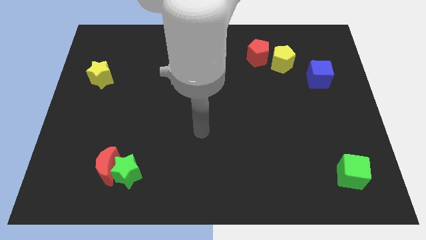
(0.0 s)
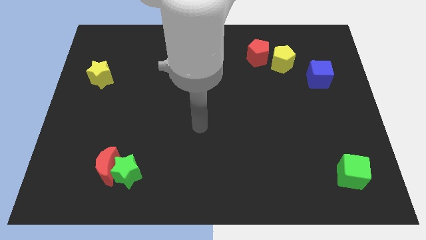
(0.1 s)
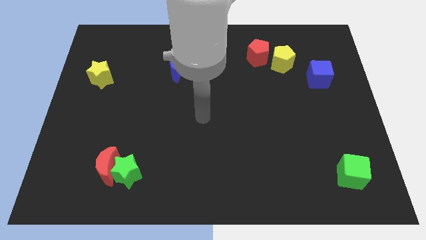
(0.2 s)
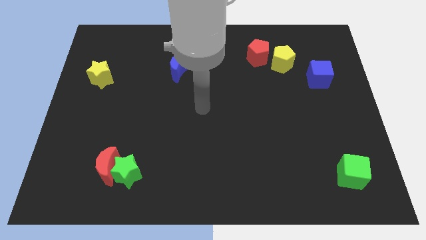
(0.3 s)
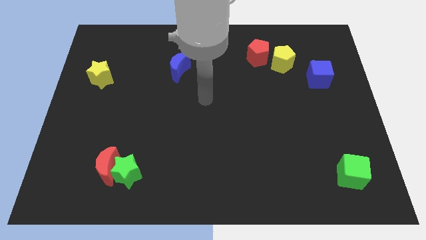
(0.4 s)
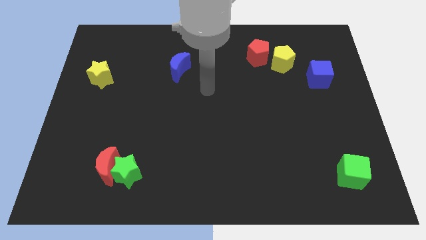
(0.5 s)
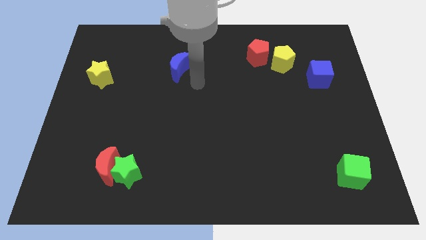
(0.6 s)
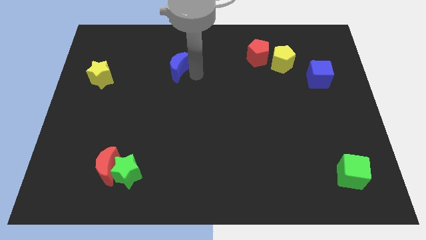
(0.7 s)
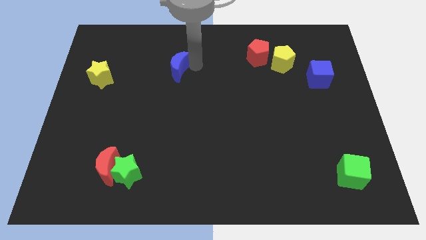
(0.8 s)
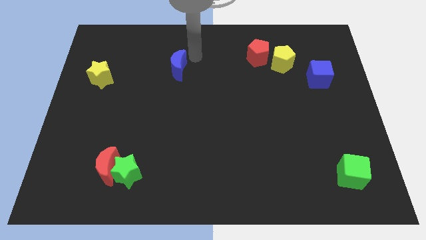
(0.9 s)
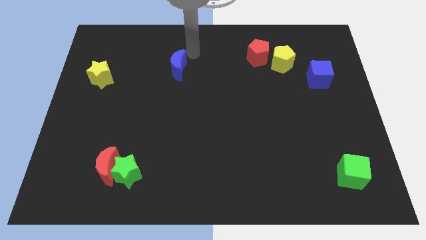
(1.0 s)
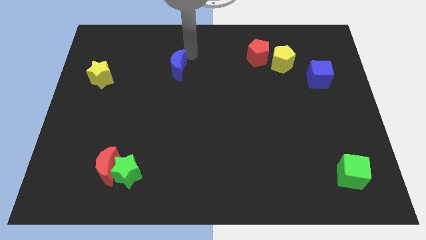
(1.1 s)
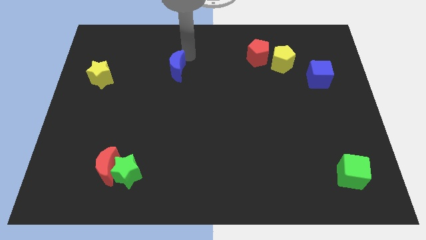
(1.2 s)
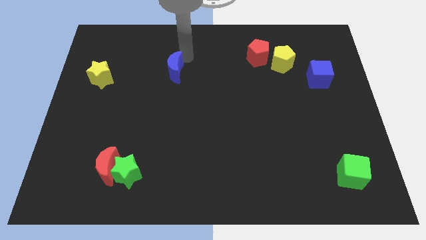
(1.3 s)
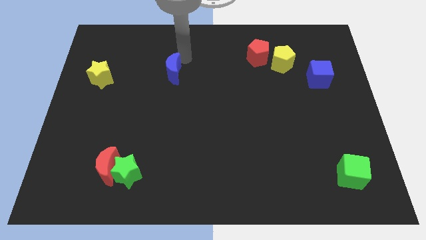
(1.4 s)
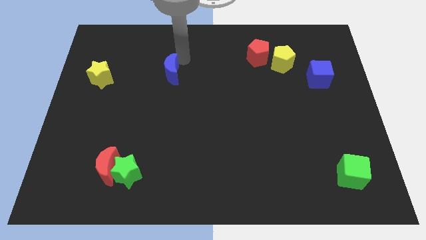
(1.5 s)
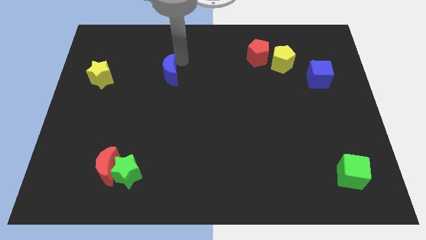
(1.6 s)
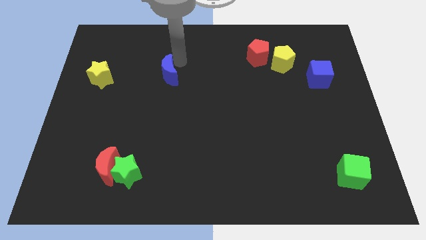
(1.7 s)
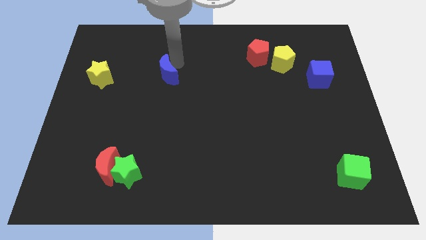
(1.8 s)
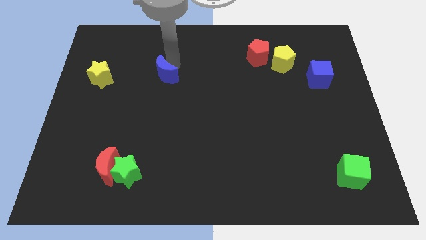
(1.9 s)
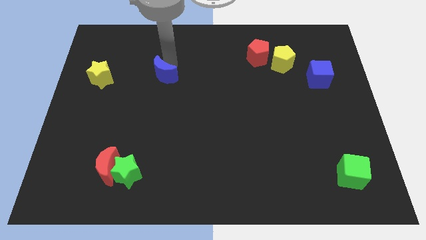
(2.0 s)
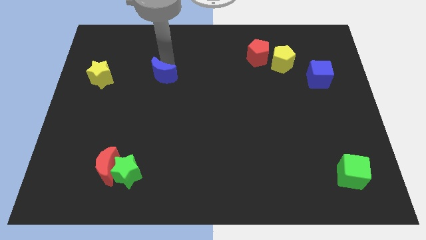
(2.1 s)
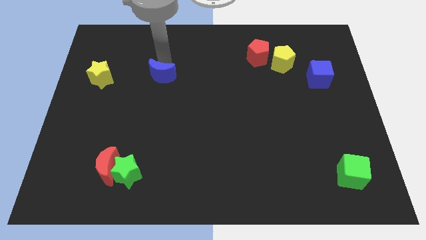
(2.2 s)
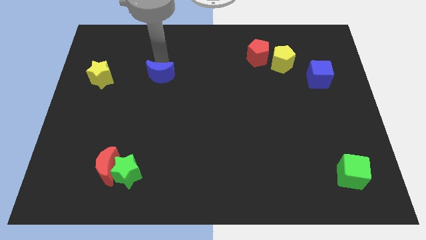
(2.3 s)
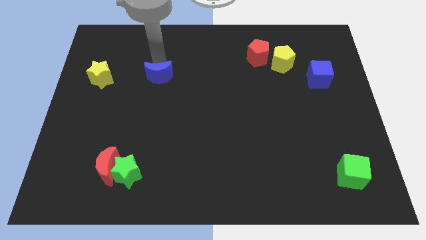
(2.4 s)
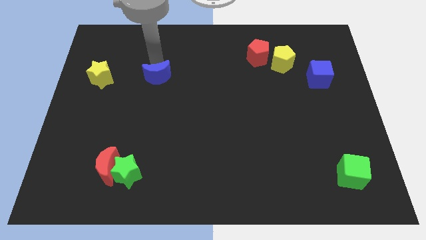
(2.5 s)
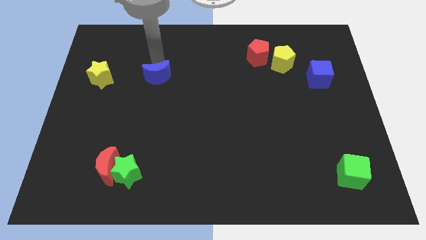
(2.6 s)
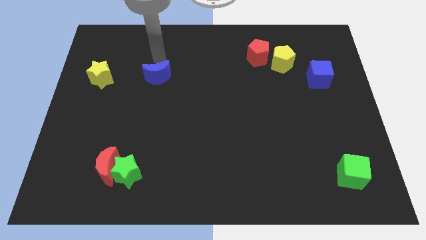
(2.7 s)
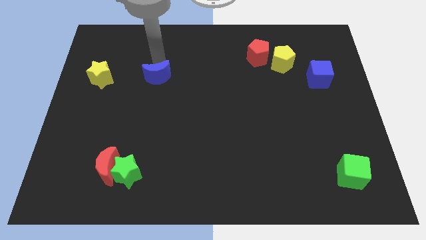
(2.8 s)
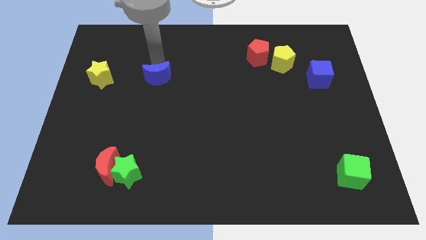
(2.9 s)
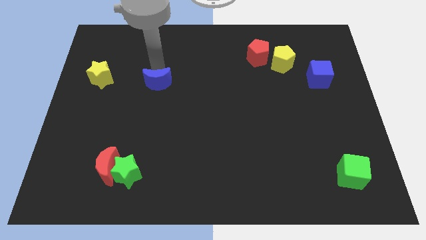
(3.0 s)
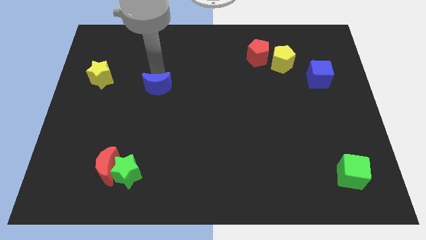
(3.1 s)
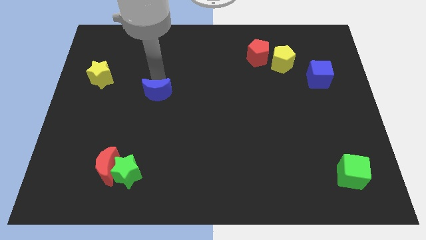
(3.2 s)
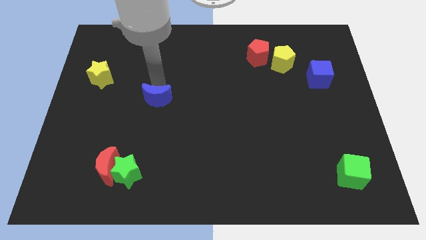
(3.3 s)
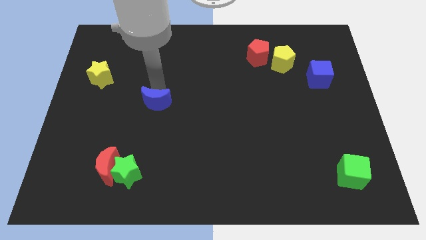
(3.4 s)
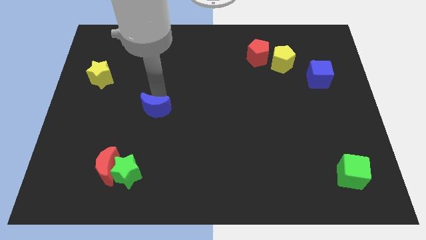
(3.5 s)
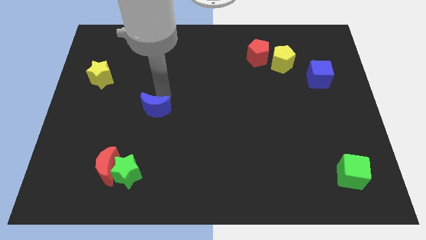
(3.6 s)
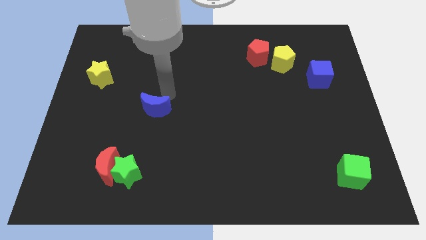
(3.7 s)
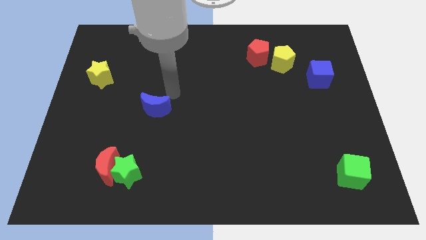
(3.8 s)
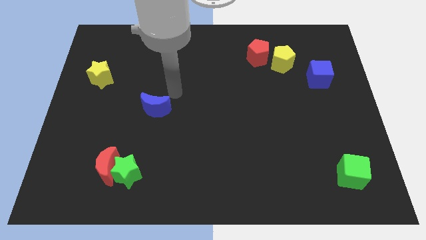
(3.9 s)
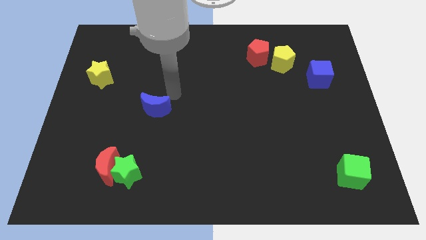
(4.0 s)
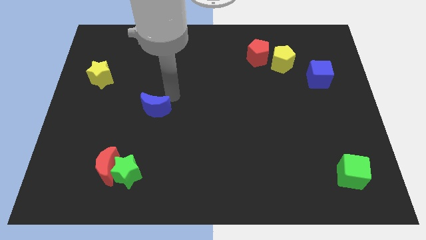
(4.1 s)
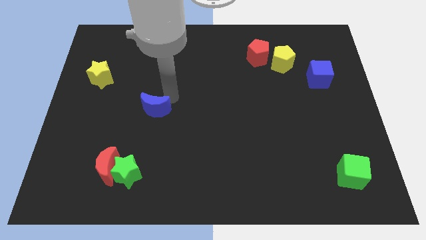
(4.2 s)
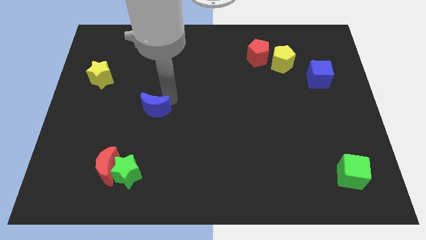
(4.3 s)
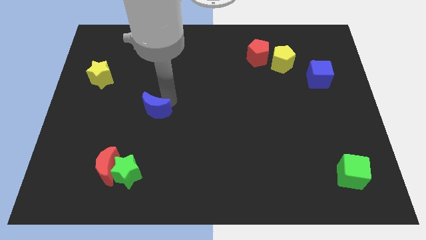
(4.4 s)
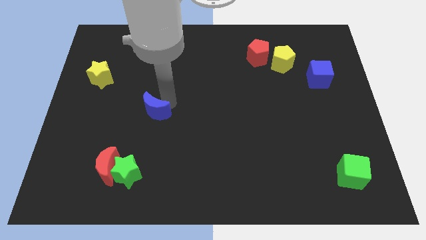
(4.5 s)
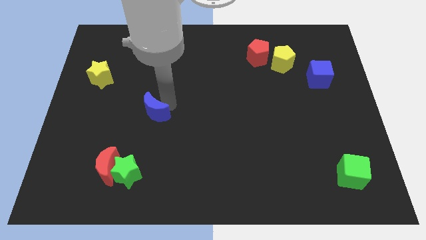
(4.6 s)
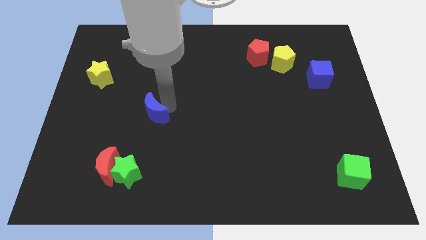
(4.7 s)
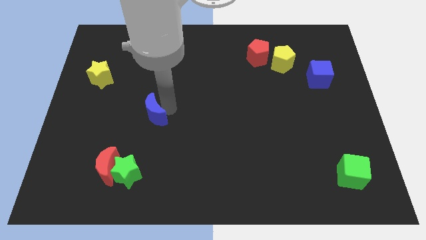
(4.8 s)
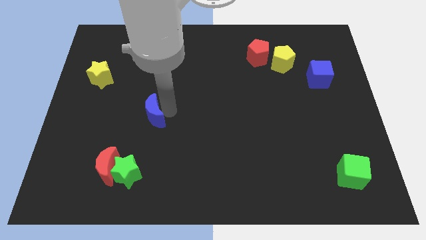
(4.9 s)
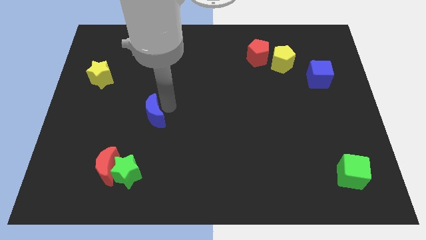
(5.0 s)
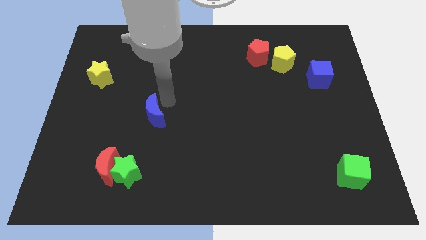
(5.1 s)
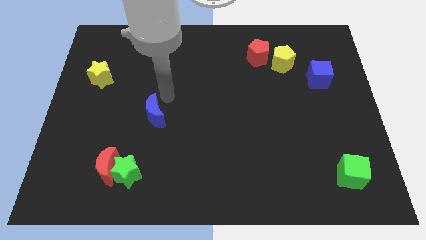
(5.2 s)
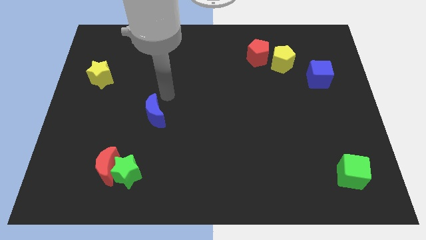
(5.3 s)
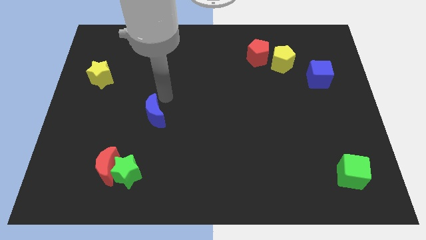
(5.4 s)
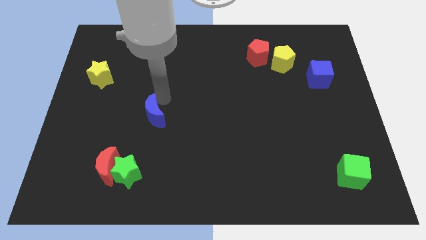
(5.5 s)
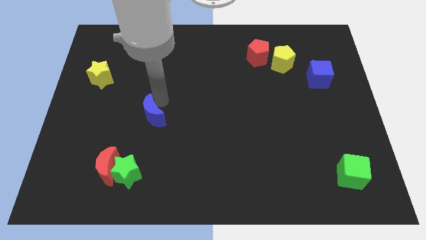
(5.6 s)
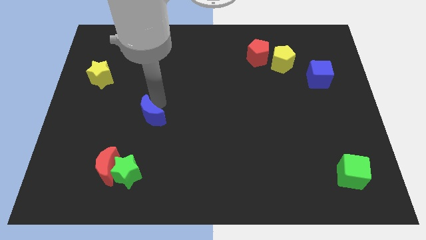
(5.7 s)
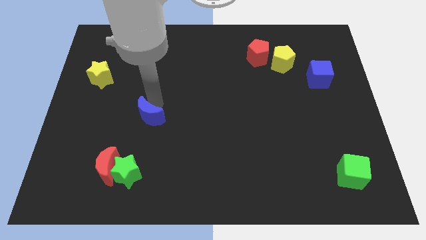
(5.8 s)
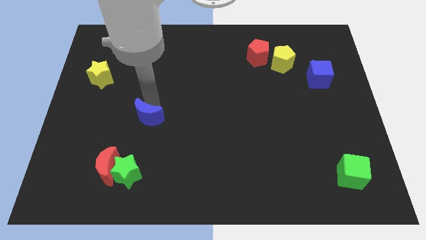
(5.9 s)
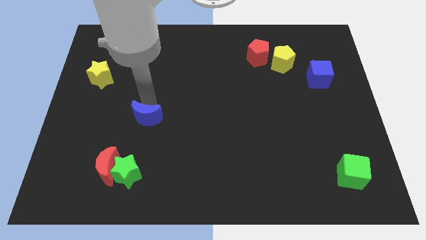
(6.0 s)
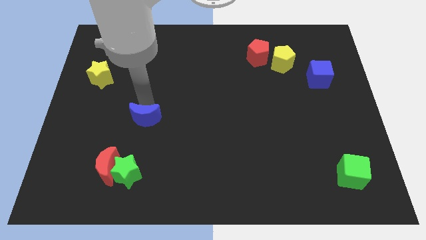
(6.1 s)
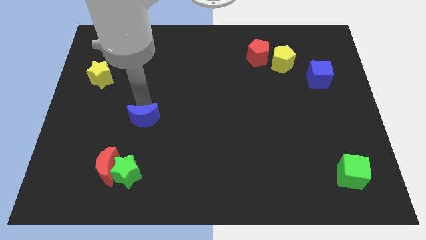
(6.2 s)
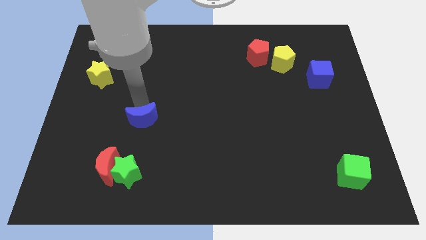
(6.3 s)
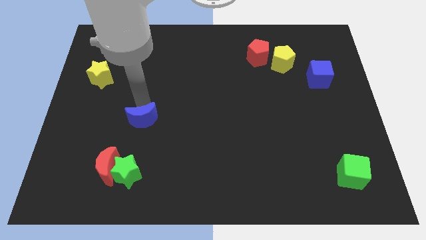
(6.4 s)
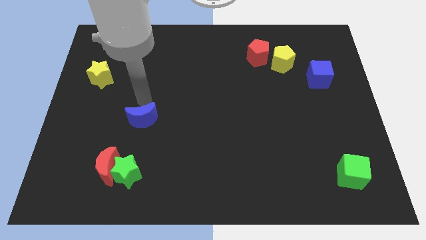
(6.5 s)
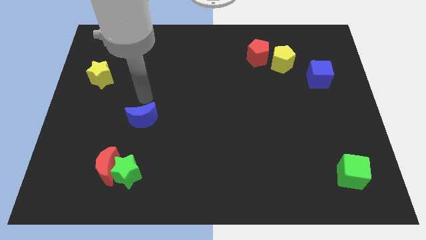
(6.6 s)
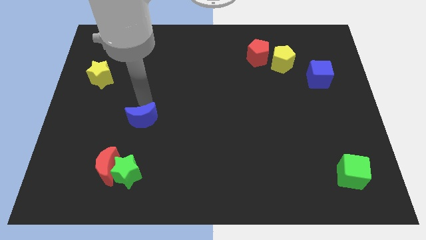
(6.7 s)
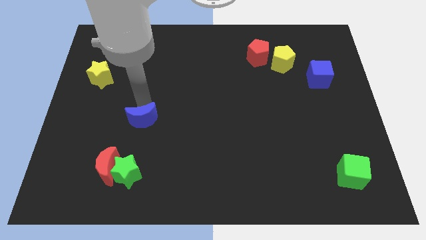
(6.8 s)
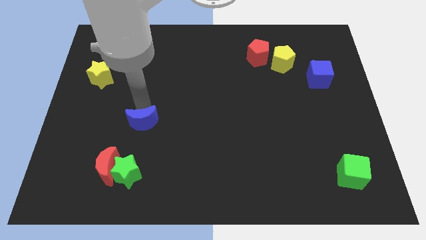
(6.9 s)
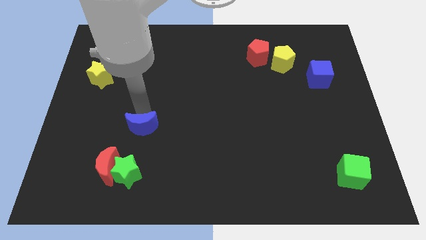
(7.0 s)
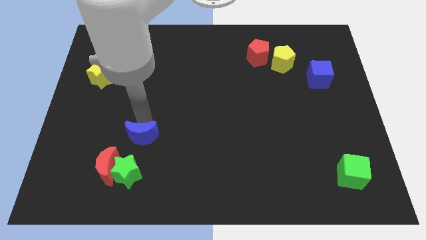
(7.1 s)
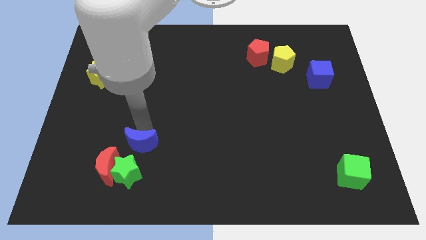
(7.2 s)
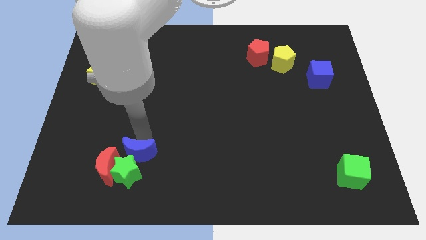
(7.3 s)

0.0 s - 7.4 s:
put the blue moon to the green star

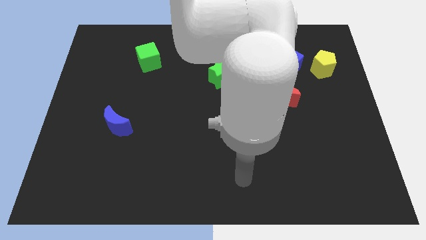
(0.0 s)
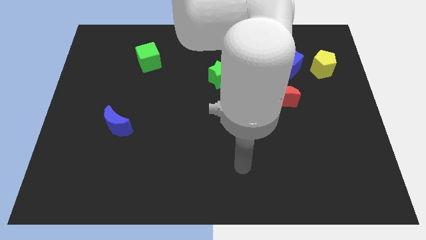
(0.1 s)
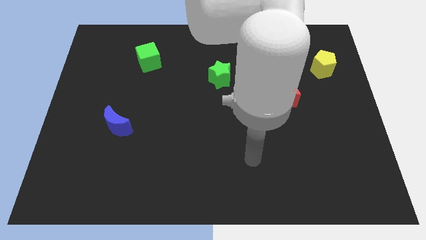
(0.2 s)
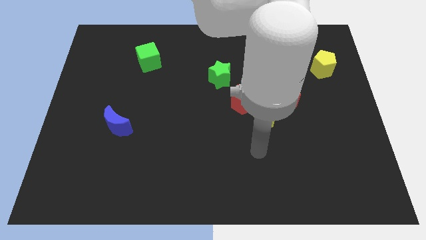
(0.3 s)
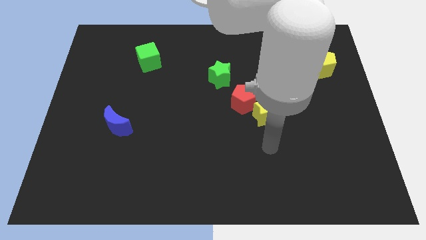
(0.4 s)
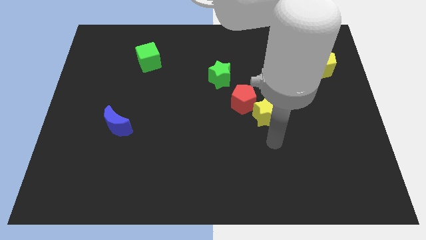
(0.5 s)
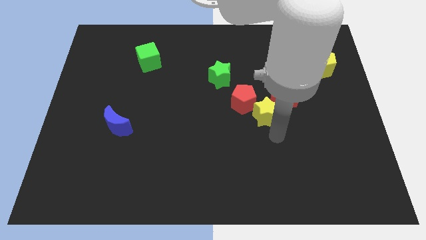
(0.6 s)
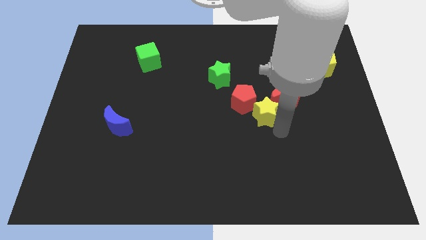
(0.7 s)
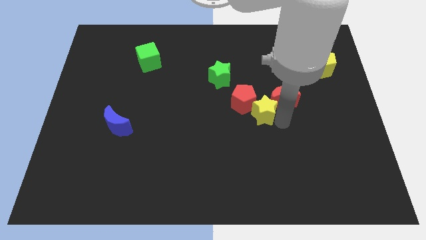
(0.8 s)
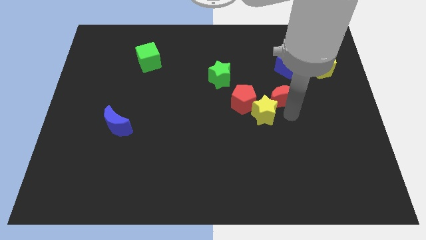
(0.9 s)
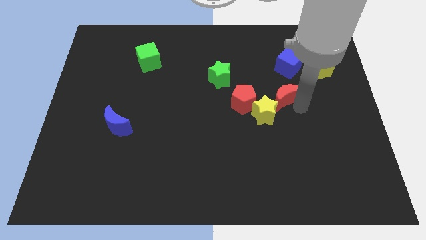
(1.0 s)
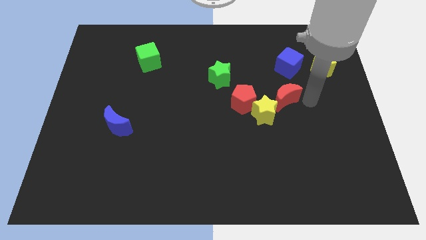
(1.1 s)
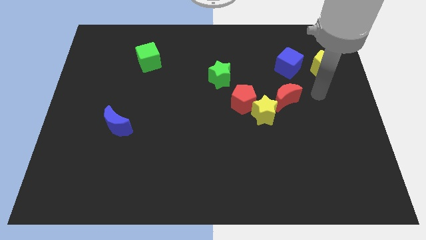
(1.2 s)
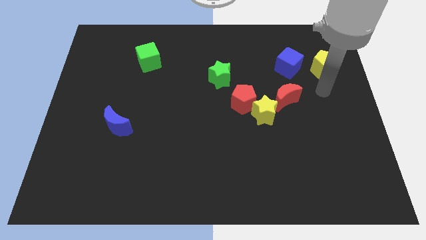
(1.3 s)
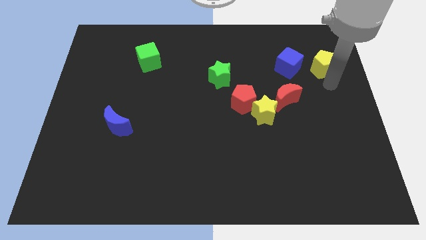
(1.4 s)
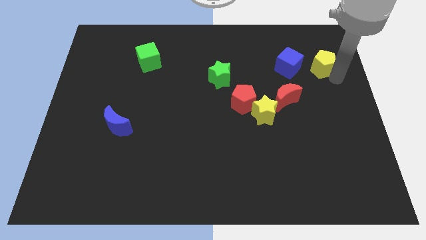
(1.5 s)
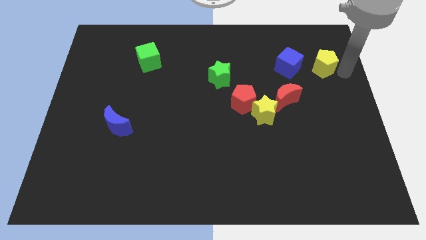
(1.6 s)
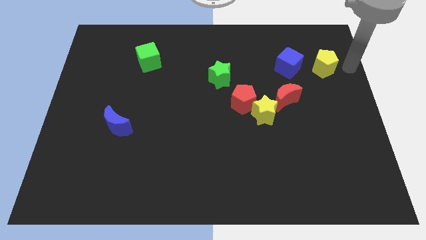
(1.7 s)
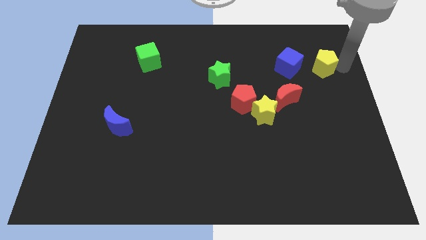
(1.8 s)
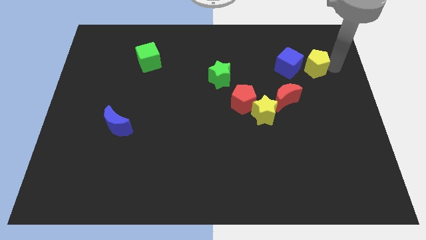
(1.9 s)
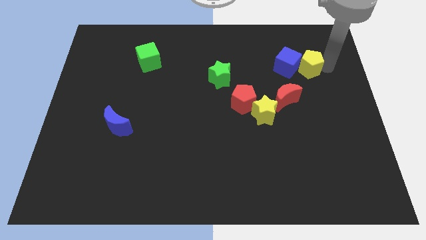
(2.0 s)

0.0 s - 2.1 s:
move the yellow pentagon close to the blue cube
